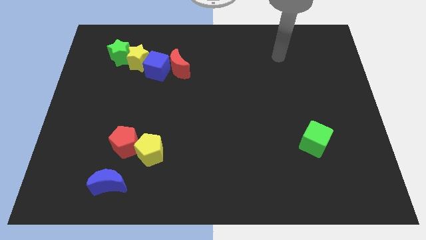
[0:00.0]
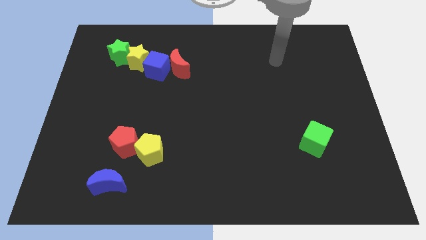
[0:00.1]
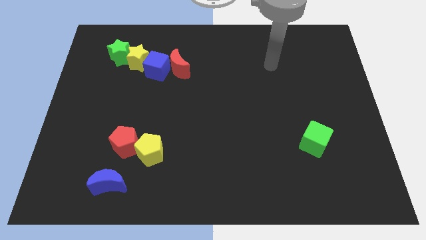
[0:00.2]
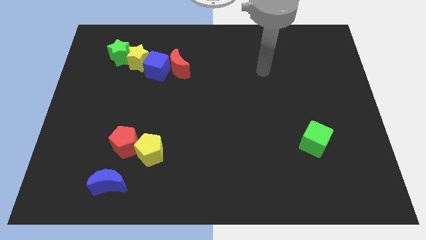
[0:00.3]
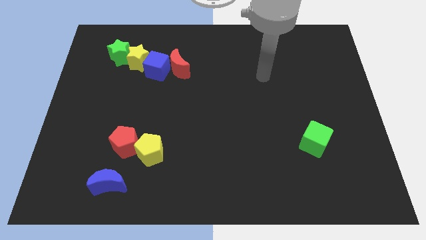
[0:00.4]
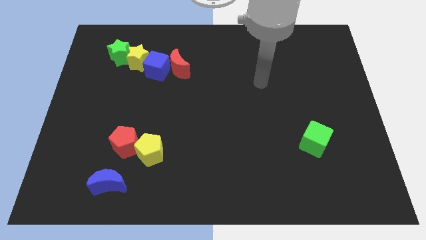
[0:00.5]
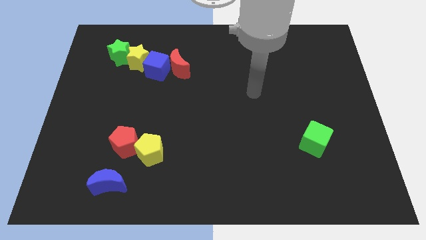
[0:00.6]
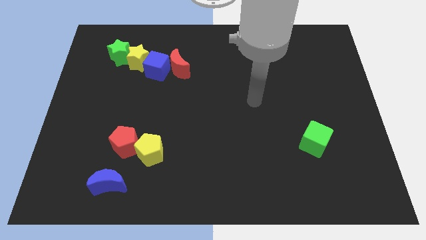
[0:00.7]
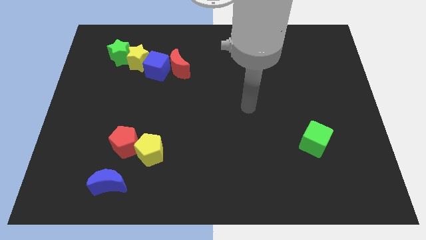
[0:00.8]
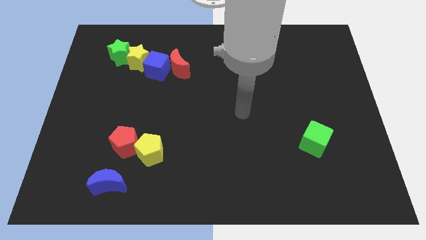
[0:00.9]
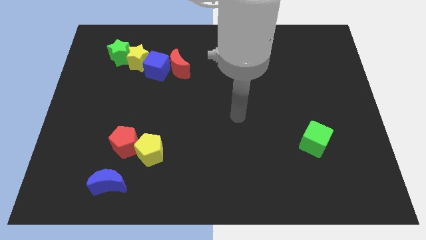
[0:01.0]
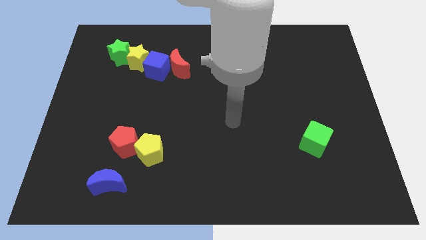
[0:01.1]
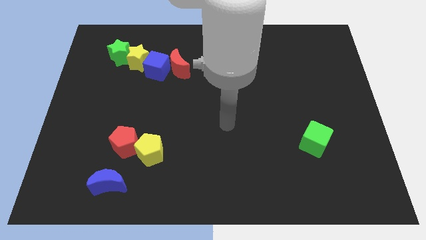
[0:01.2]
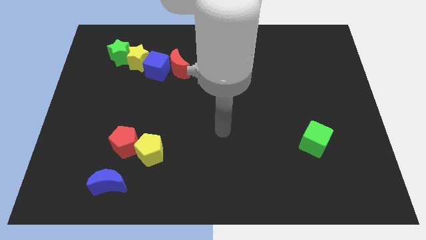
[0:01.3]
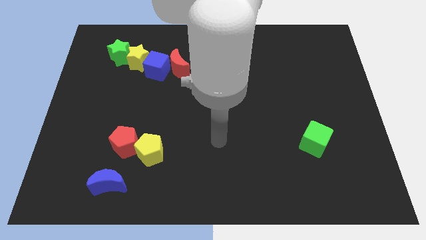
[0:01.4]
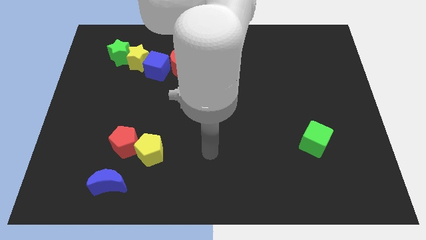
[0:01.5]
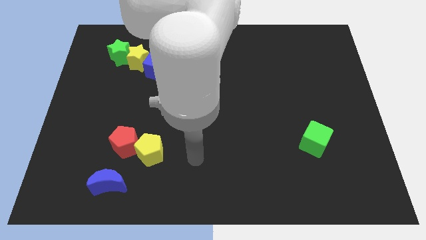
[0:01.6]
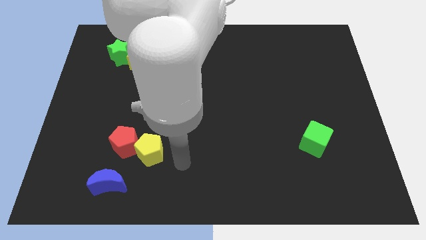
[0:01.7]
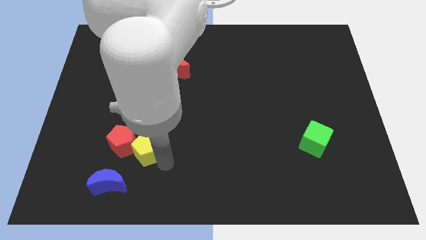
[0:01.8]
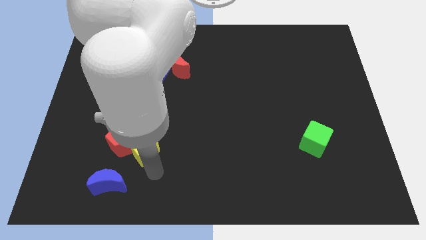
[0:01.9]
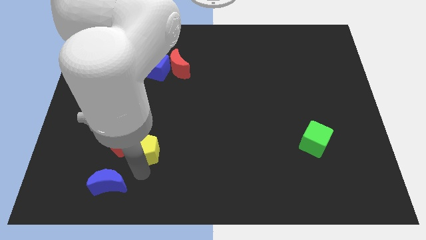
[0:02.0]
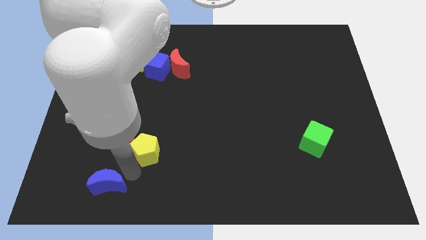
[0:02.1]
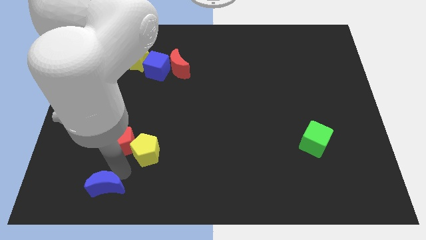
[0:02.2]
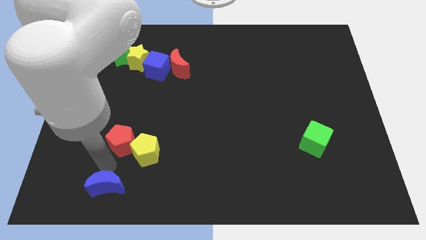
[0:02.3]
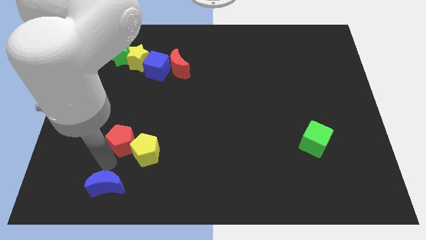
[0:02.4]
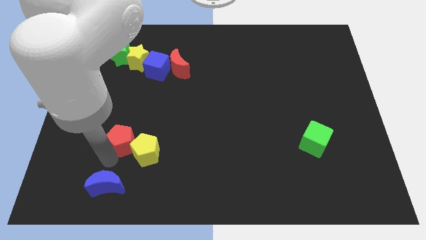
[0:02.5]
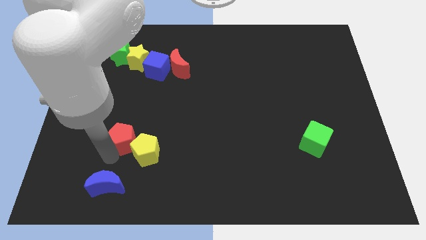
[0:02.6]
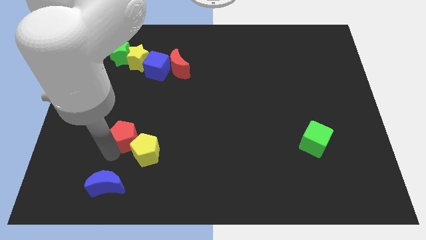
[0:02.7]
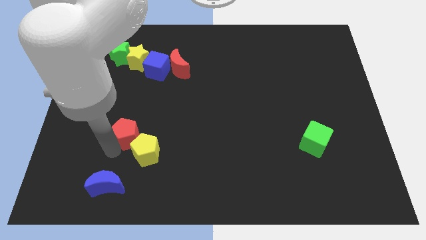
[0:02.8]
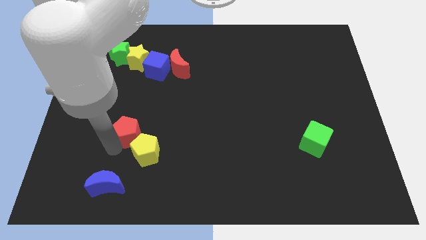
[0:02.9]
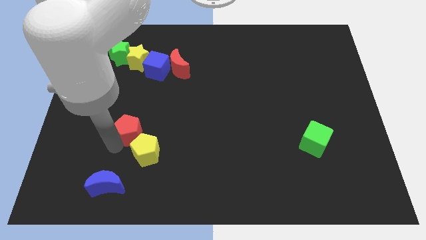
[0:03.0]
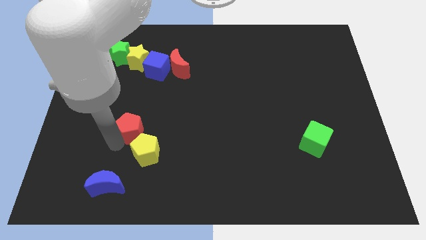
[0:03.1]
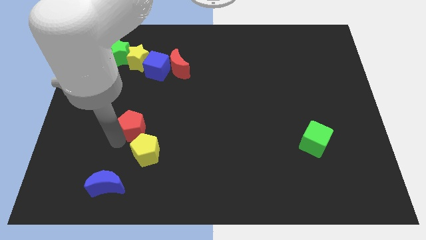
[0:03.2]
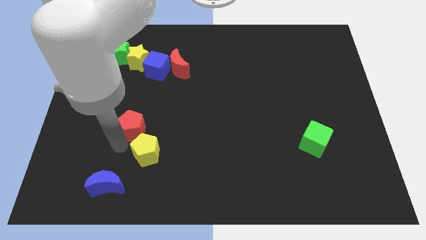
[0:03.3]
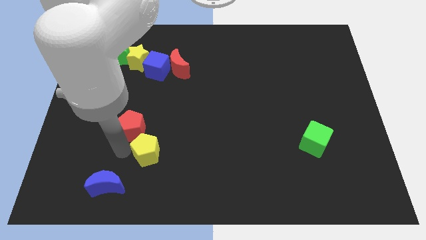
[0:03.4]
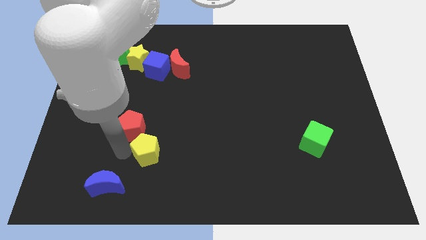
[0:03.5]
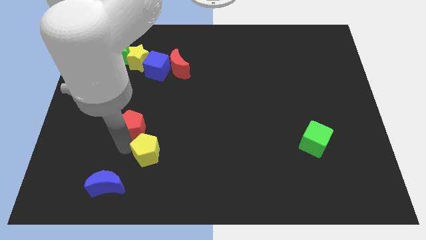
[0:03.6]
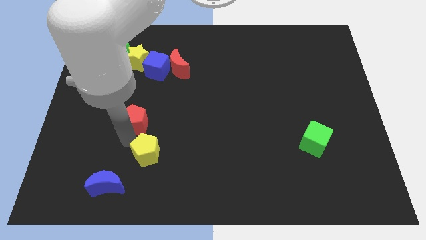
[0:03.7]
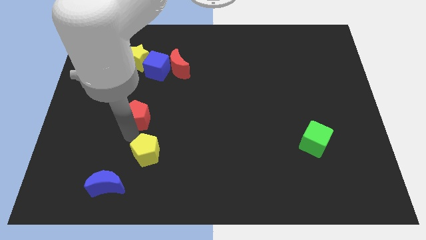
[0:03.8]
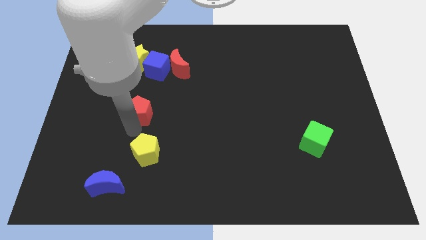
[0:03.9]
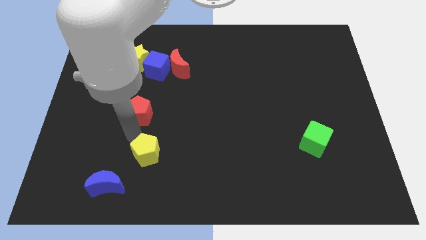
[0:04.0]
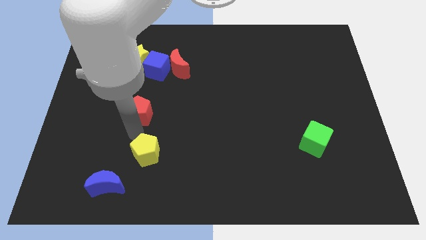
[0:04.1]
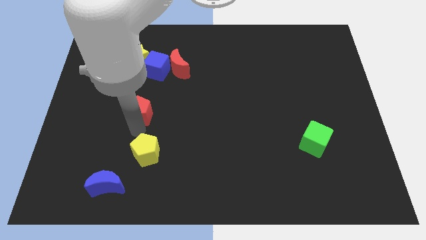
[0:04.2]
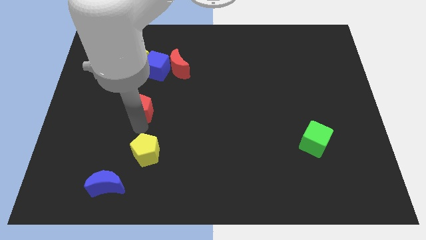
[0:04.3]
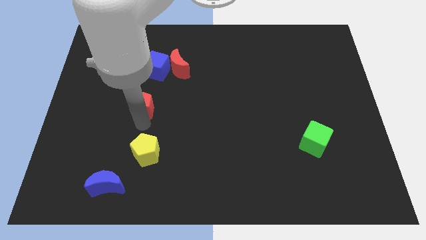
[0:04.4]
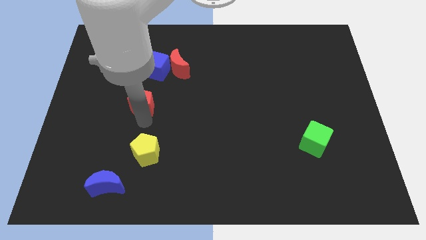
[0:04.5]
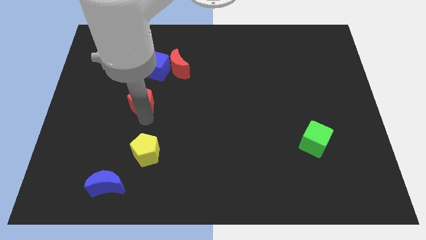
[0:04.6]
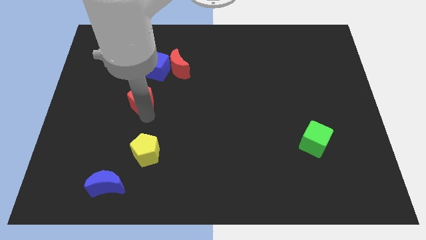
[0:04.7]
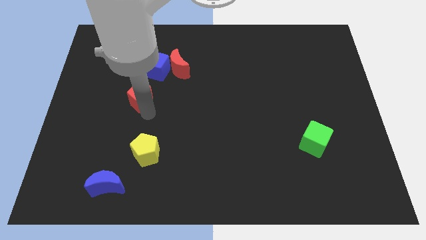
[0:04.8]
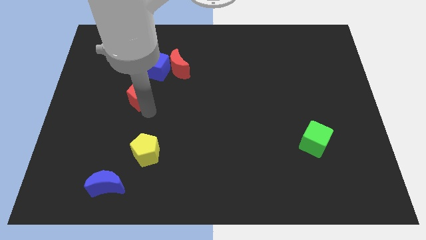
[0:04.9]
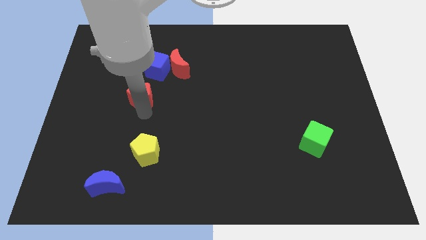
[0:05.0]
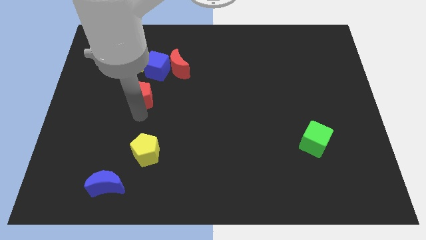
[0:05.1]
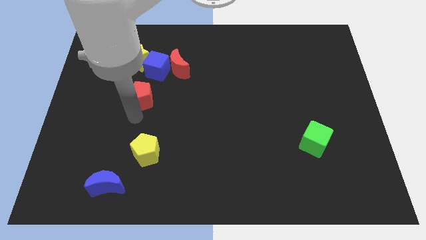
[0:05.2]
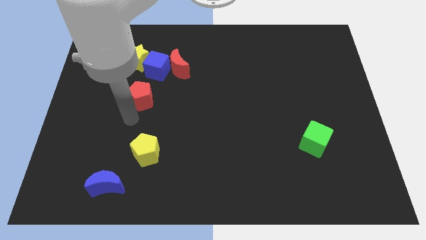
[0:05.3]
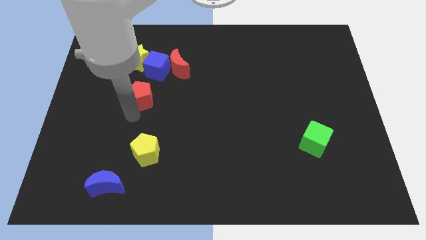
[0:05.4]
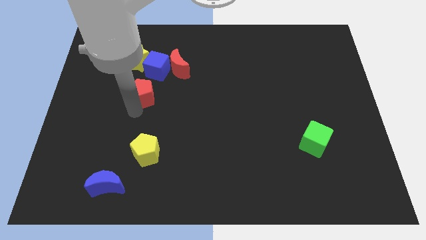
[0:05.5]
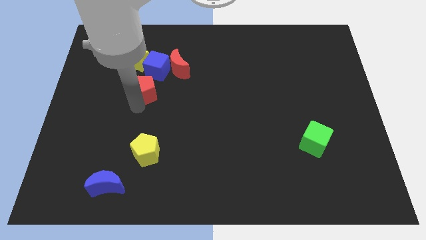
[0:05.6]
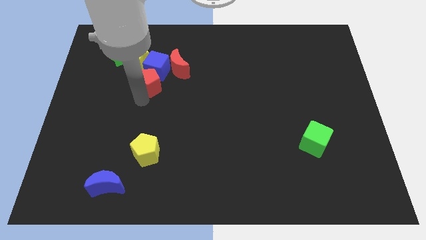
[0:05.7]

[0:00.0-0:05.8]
push the red pentagon close to the blue cube

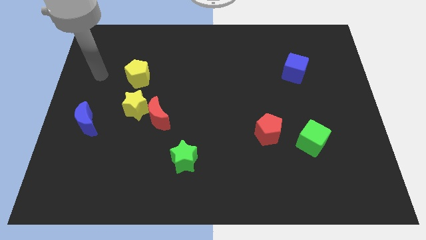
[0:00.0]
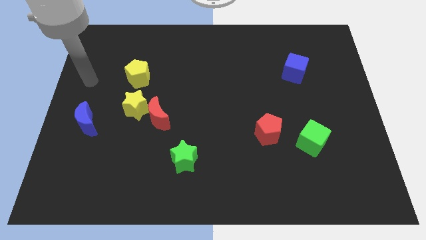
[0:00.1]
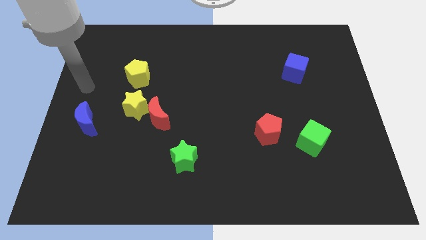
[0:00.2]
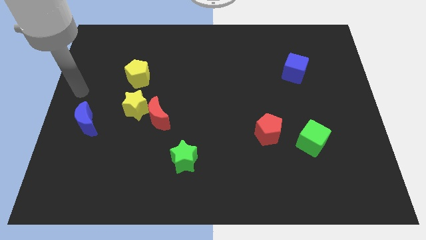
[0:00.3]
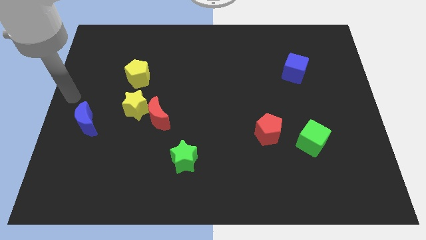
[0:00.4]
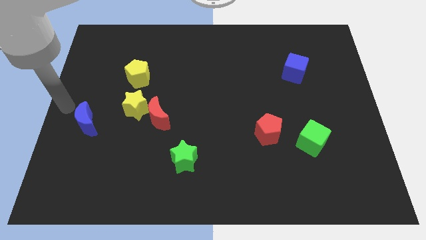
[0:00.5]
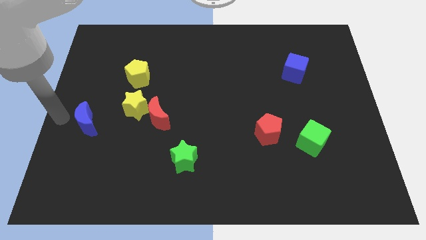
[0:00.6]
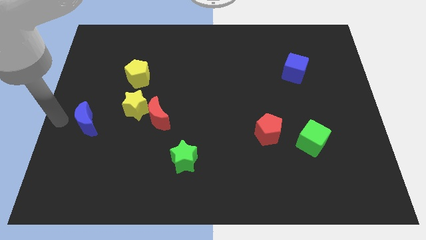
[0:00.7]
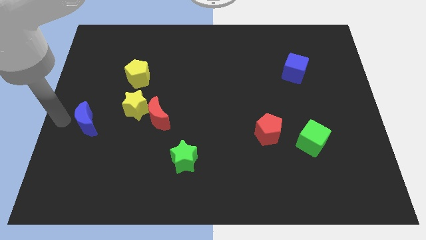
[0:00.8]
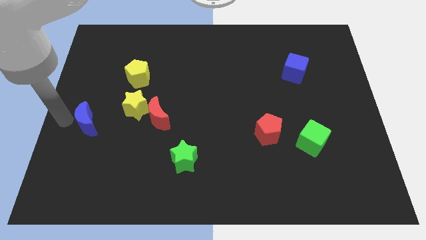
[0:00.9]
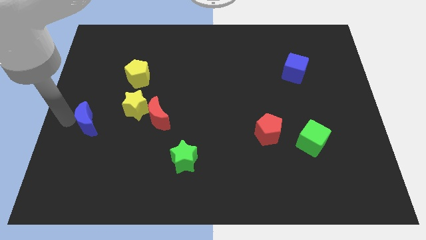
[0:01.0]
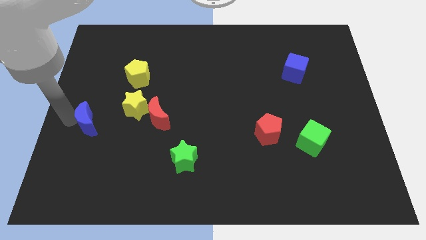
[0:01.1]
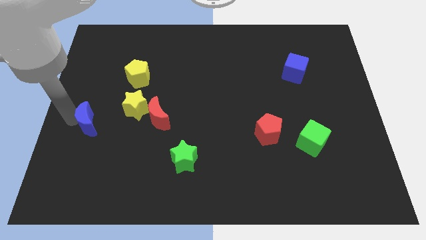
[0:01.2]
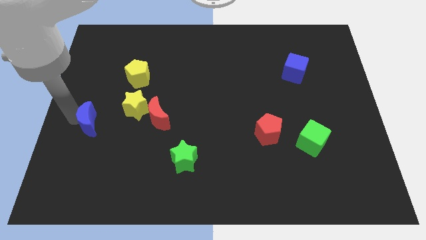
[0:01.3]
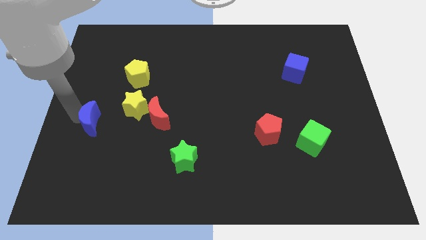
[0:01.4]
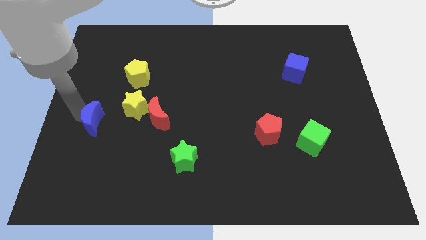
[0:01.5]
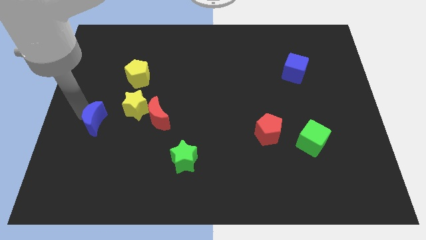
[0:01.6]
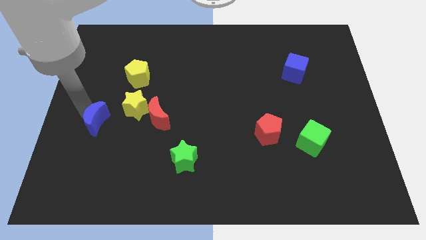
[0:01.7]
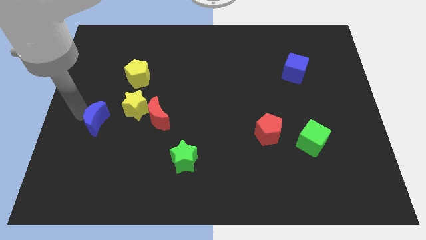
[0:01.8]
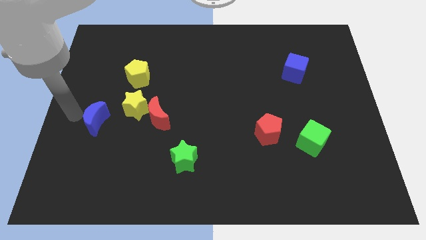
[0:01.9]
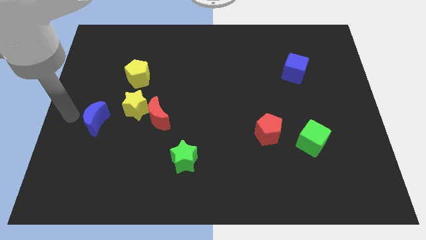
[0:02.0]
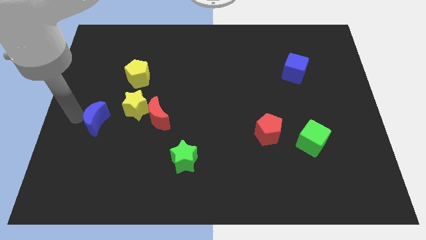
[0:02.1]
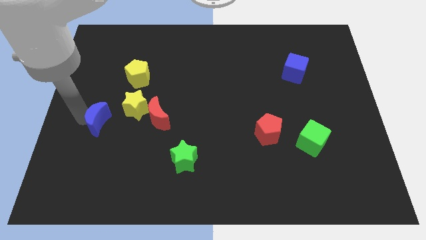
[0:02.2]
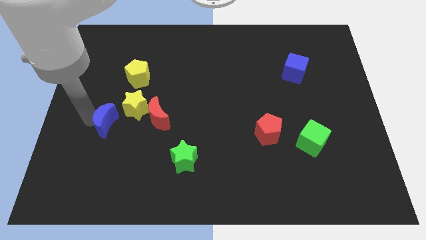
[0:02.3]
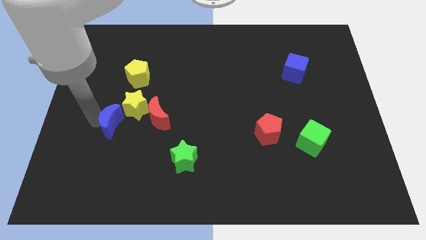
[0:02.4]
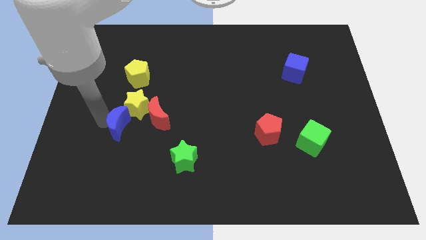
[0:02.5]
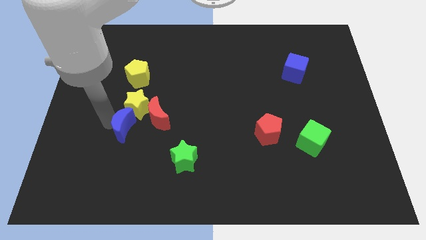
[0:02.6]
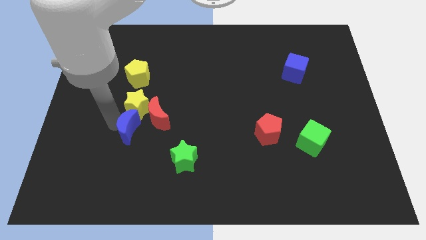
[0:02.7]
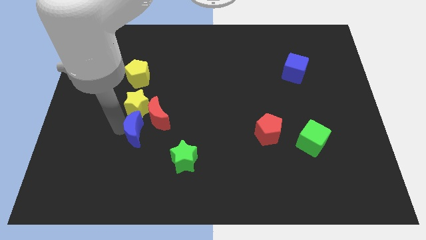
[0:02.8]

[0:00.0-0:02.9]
slide the blue moon next to the red moon
